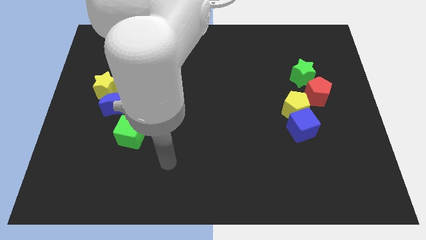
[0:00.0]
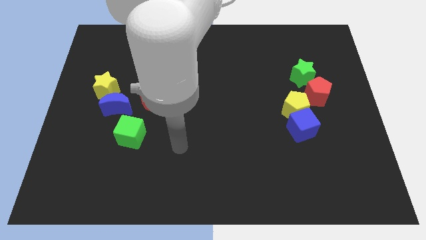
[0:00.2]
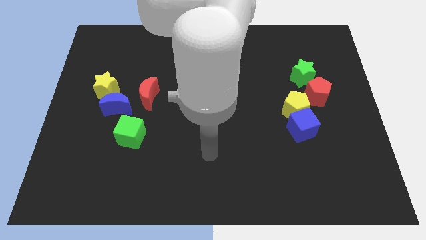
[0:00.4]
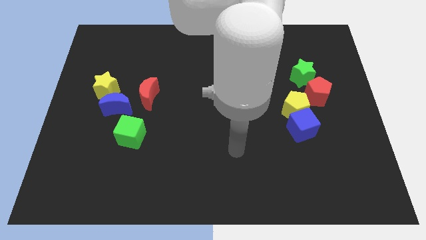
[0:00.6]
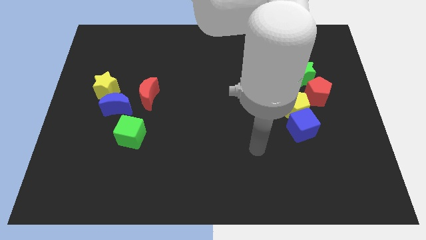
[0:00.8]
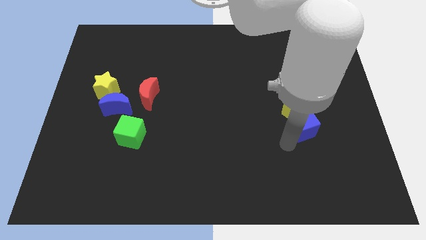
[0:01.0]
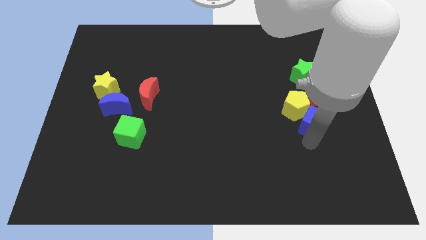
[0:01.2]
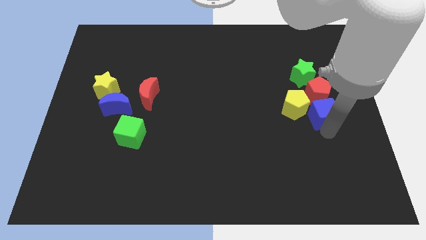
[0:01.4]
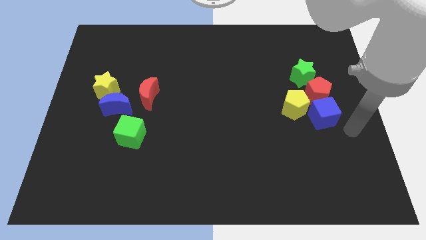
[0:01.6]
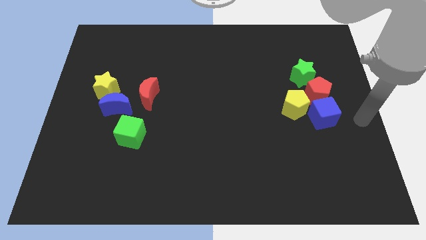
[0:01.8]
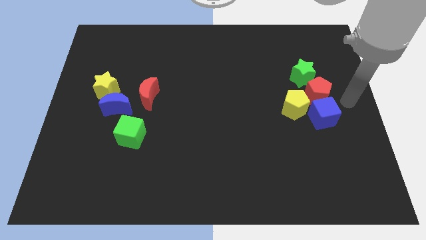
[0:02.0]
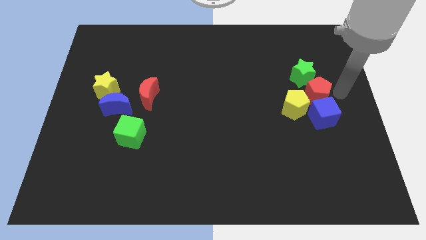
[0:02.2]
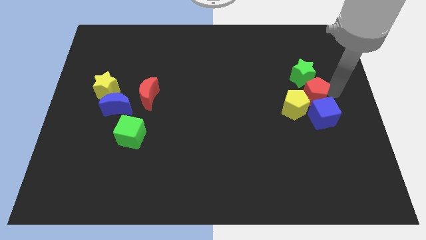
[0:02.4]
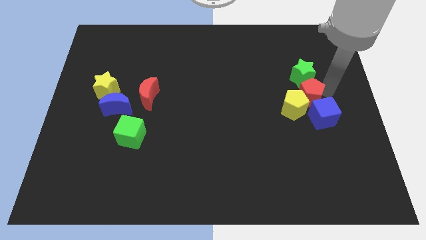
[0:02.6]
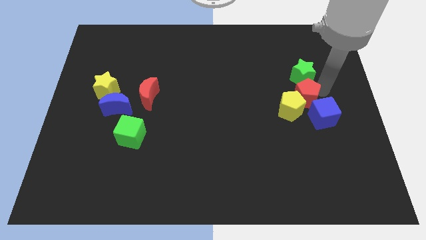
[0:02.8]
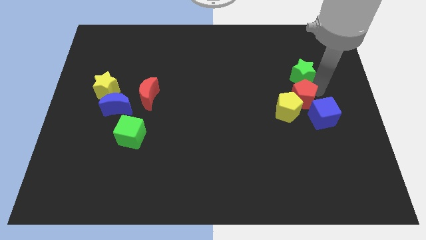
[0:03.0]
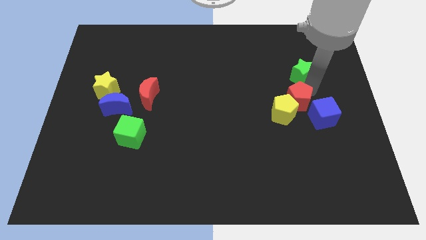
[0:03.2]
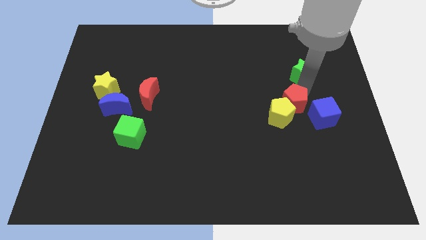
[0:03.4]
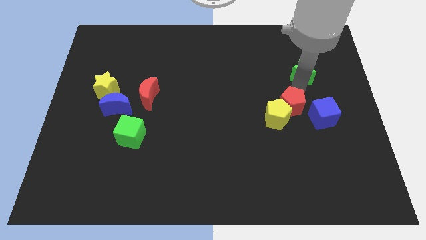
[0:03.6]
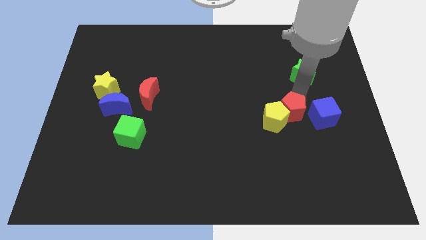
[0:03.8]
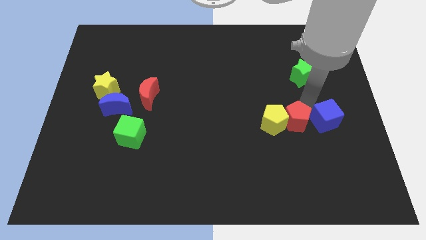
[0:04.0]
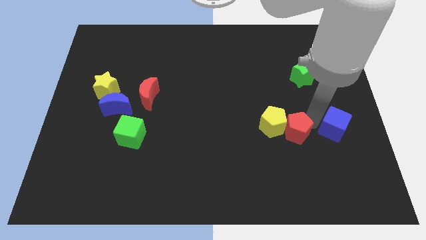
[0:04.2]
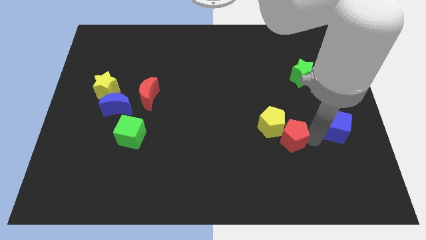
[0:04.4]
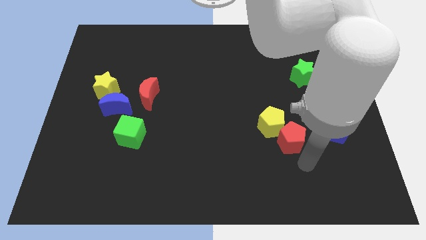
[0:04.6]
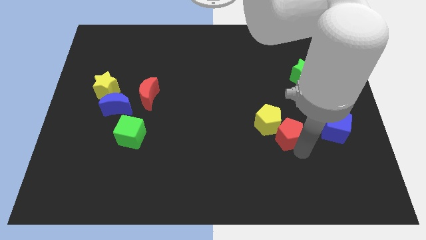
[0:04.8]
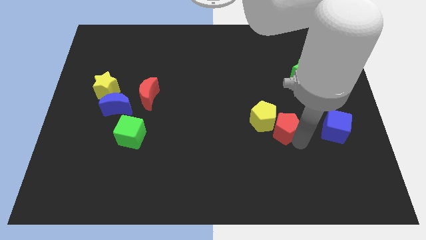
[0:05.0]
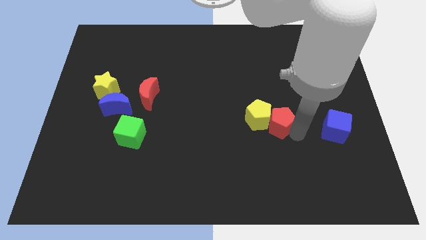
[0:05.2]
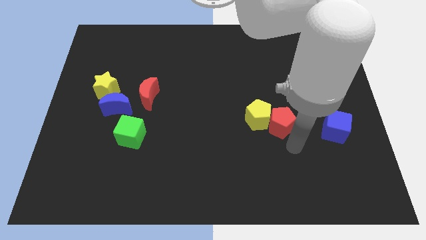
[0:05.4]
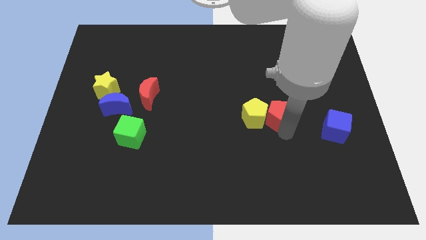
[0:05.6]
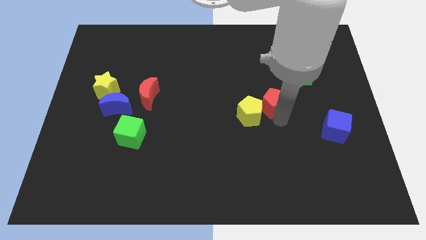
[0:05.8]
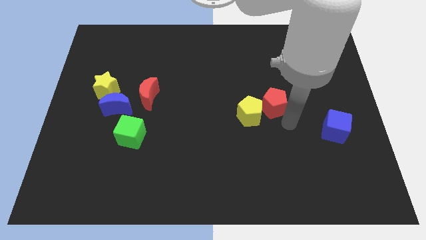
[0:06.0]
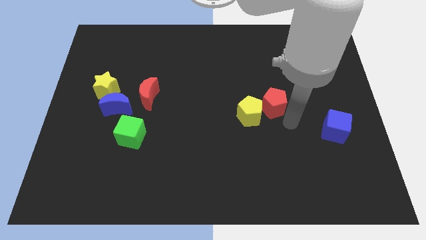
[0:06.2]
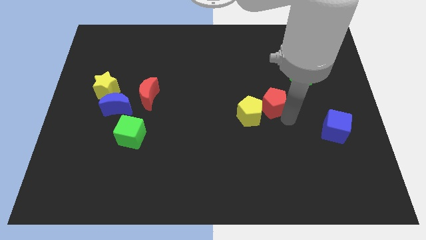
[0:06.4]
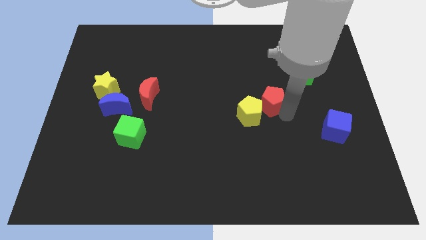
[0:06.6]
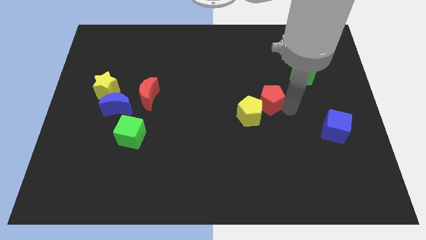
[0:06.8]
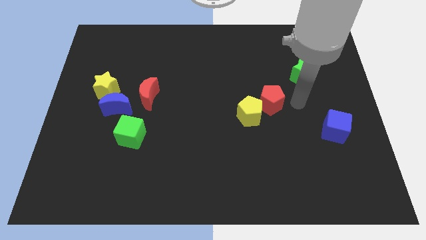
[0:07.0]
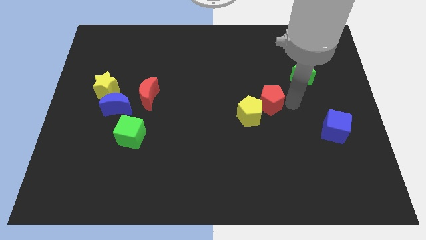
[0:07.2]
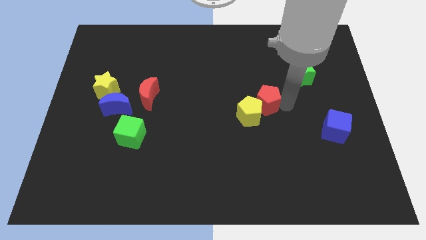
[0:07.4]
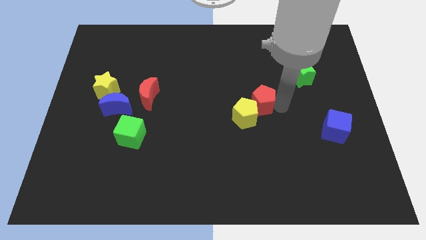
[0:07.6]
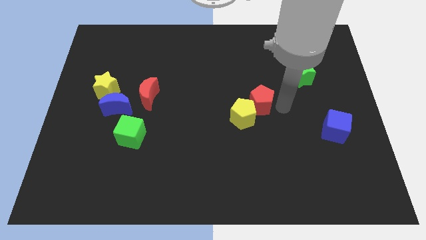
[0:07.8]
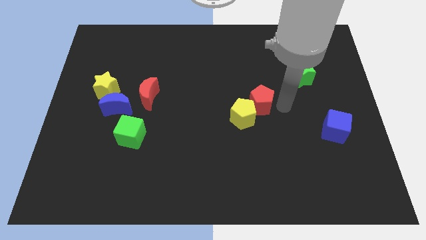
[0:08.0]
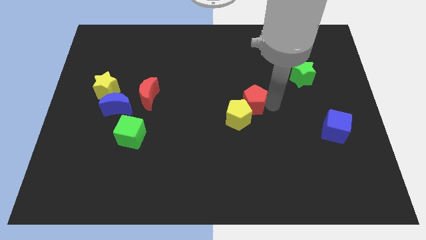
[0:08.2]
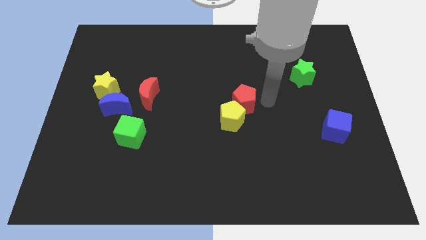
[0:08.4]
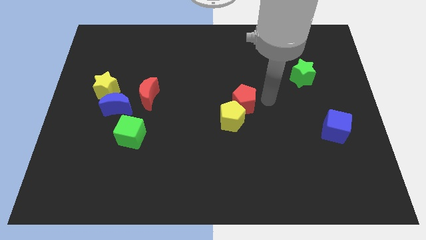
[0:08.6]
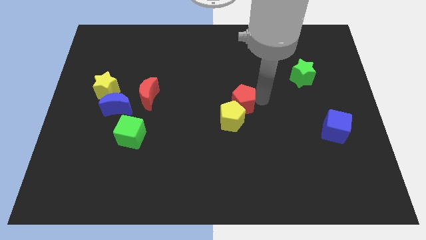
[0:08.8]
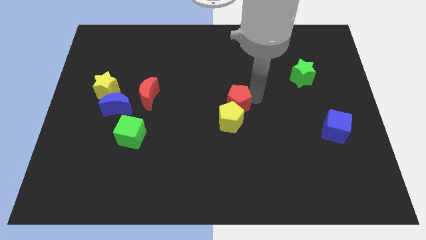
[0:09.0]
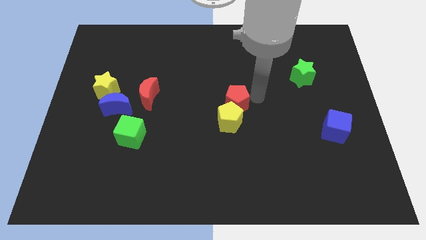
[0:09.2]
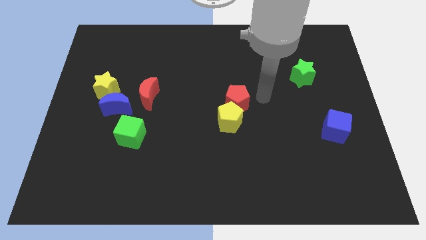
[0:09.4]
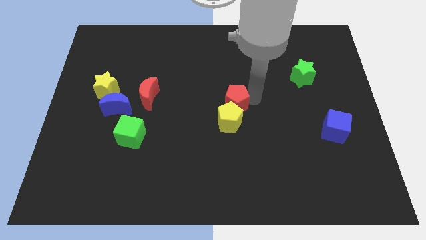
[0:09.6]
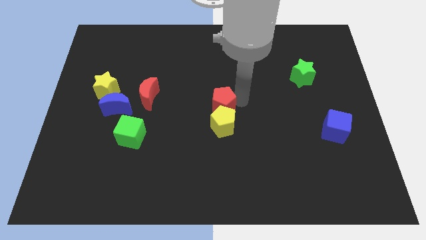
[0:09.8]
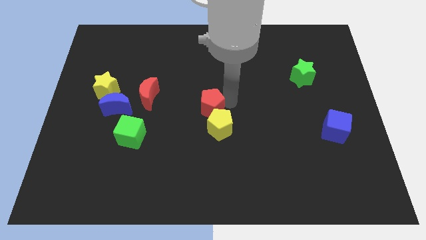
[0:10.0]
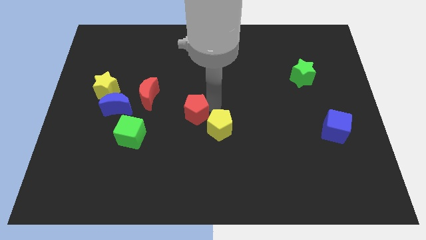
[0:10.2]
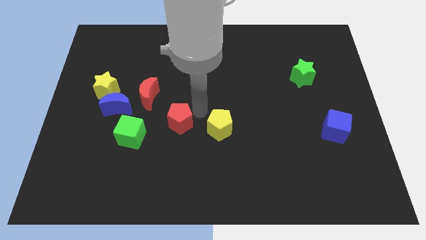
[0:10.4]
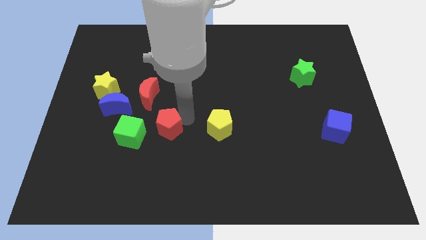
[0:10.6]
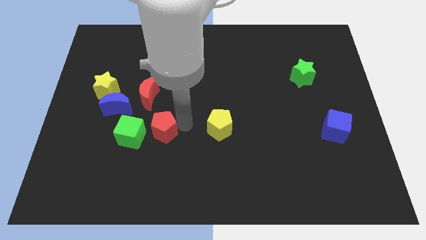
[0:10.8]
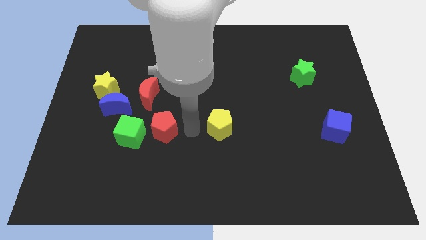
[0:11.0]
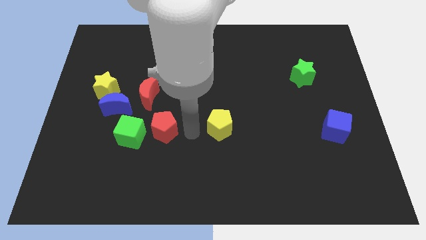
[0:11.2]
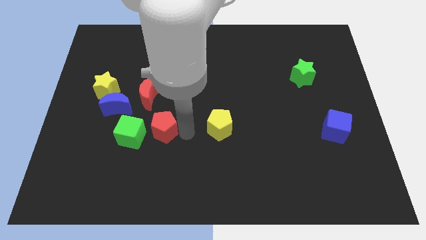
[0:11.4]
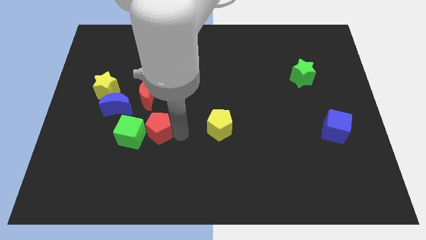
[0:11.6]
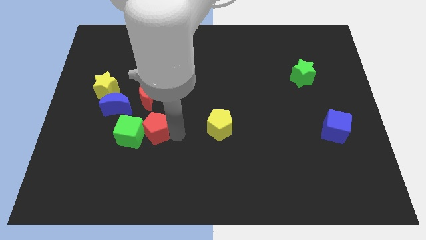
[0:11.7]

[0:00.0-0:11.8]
push the red pentagon to the green cube

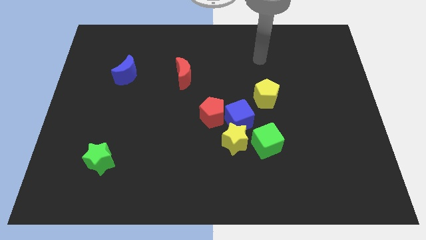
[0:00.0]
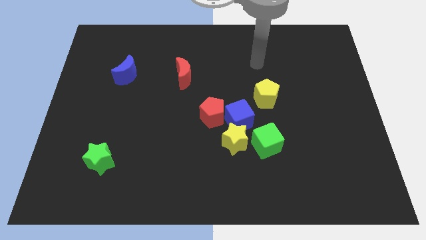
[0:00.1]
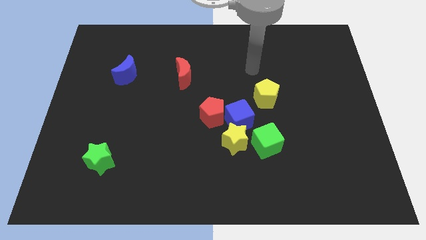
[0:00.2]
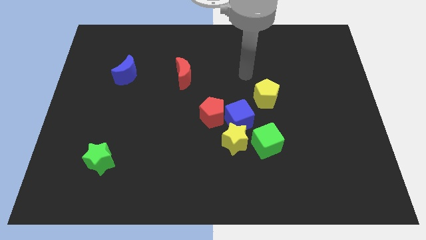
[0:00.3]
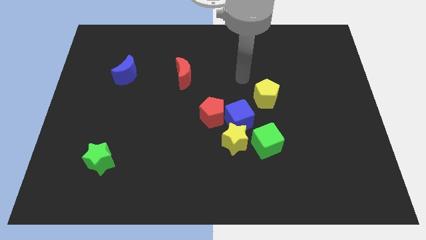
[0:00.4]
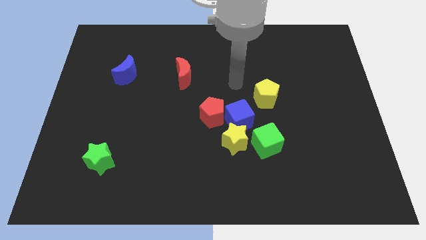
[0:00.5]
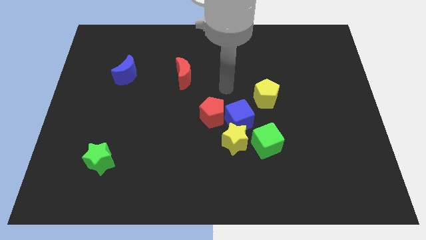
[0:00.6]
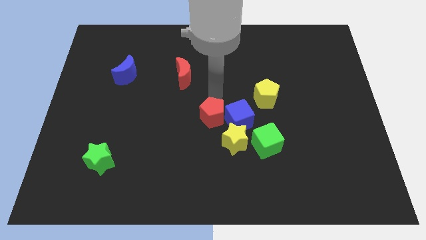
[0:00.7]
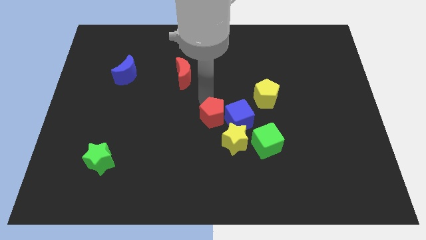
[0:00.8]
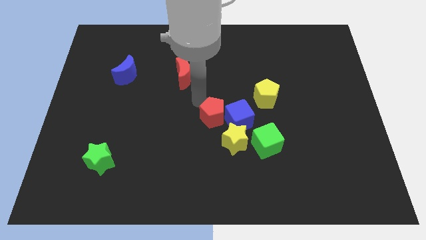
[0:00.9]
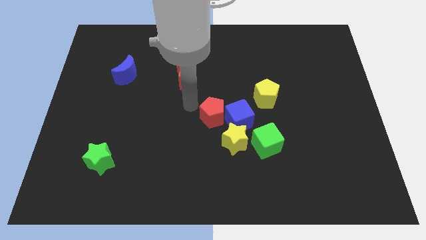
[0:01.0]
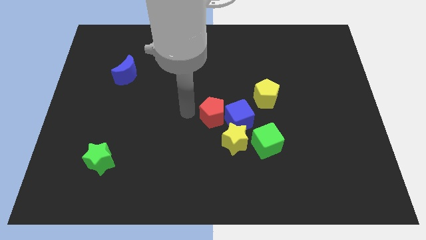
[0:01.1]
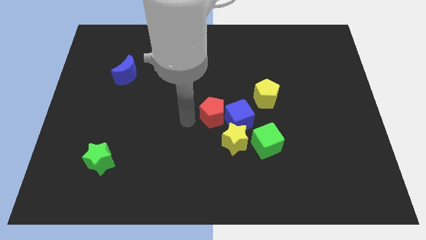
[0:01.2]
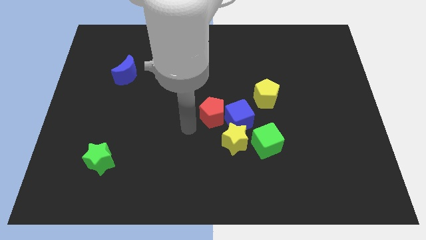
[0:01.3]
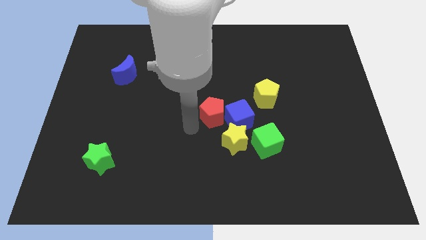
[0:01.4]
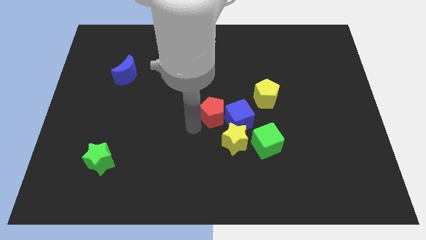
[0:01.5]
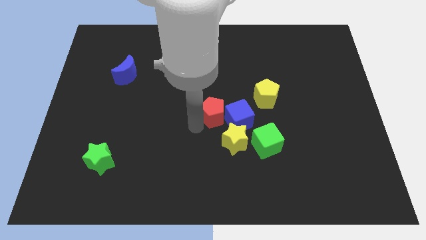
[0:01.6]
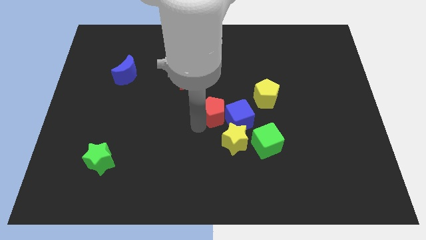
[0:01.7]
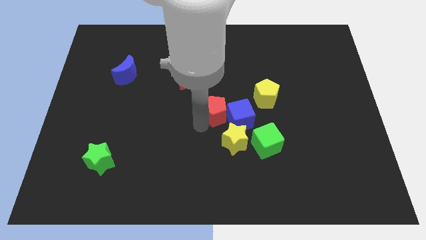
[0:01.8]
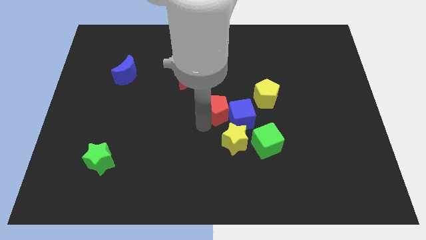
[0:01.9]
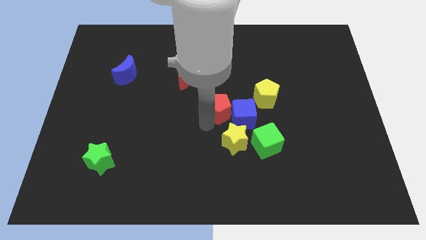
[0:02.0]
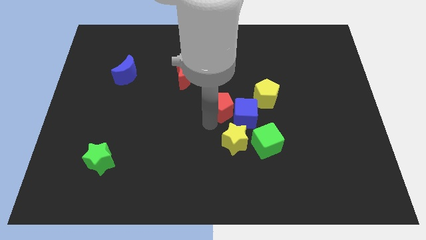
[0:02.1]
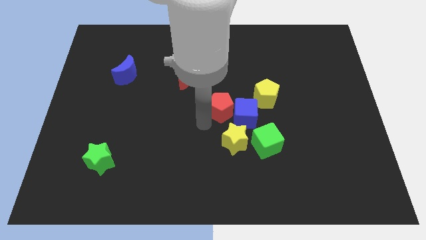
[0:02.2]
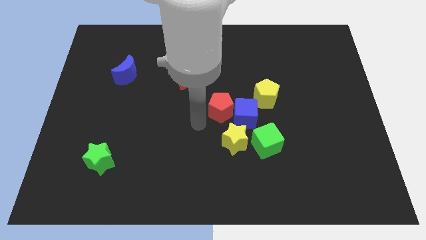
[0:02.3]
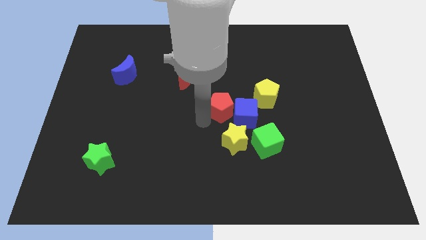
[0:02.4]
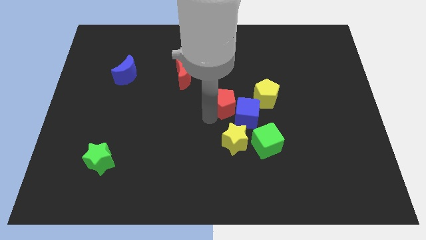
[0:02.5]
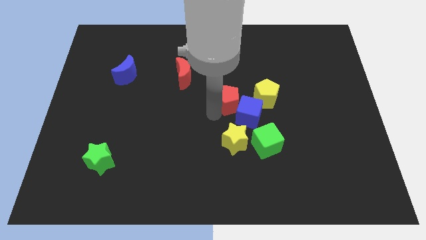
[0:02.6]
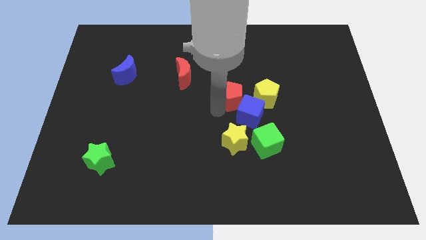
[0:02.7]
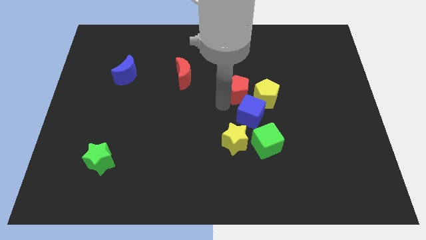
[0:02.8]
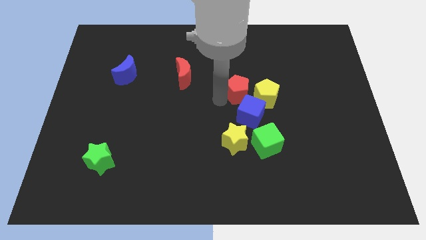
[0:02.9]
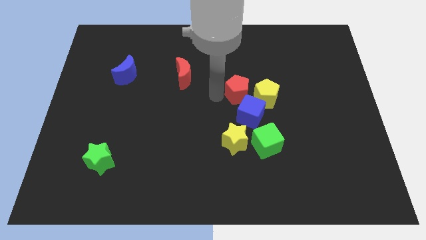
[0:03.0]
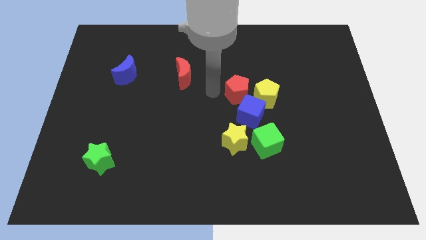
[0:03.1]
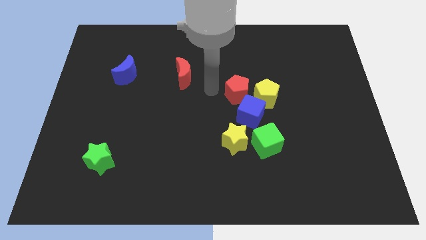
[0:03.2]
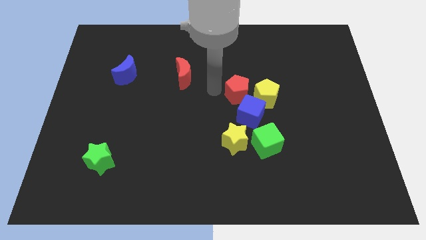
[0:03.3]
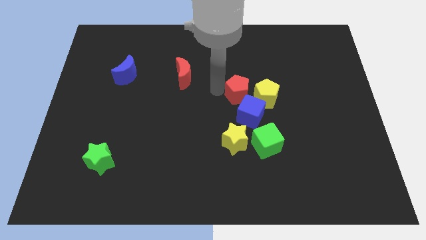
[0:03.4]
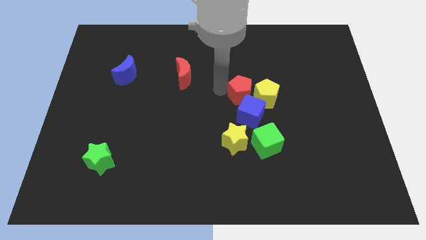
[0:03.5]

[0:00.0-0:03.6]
move the red pentagon close to the yellow pentagon
